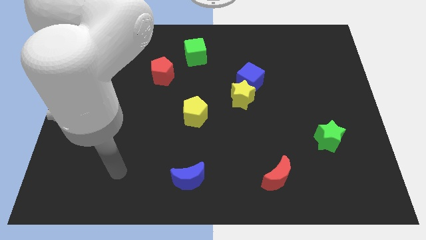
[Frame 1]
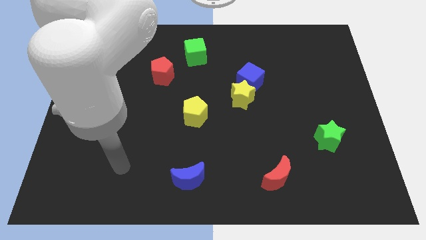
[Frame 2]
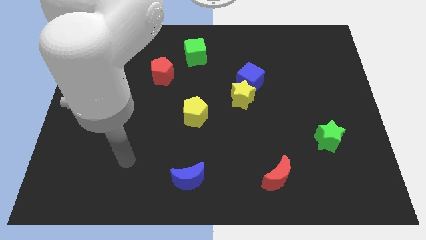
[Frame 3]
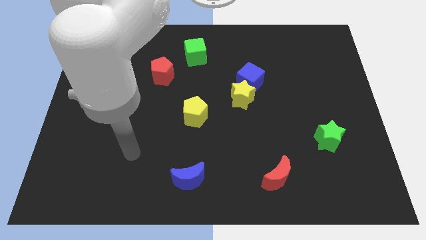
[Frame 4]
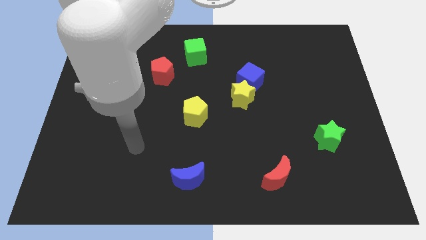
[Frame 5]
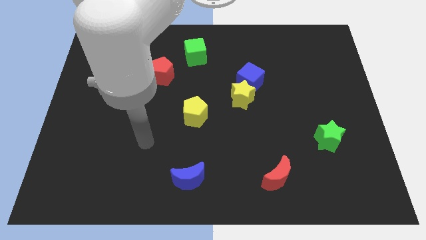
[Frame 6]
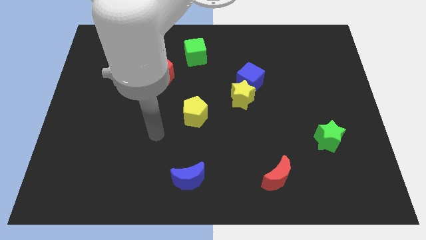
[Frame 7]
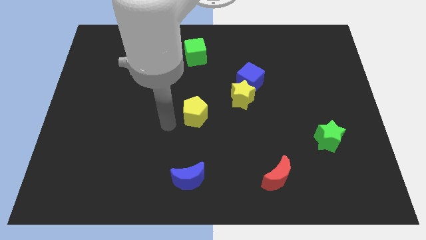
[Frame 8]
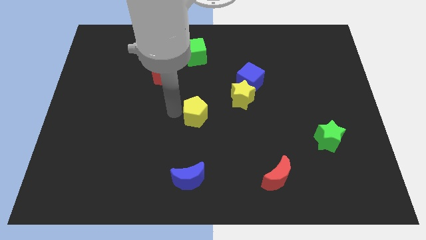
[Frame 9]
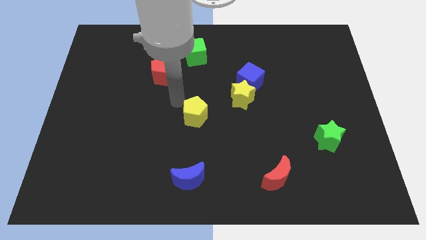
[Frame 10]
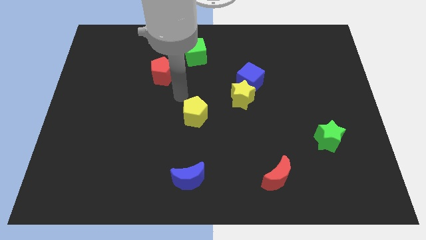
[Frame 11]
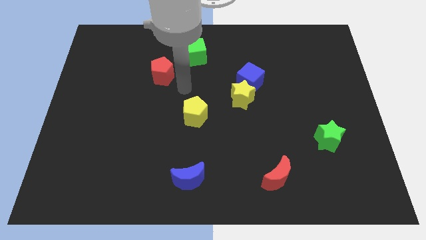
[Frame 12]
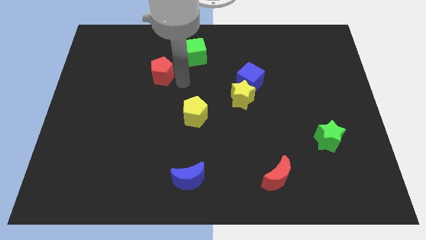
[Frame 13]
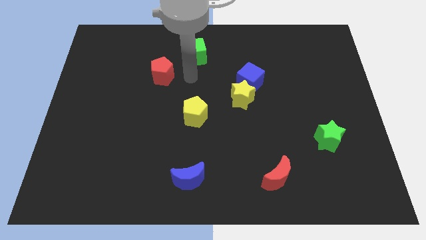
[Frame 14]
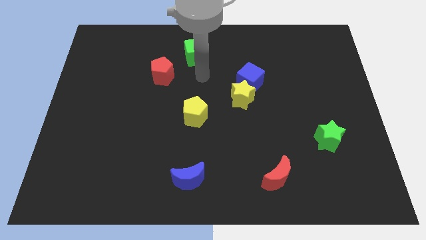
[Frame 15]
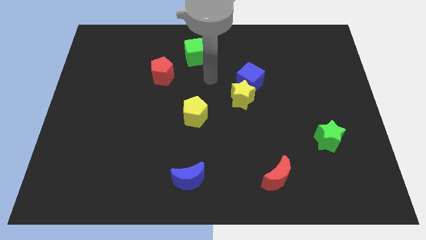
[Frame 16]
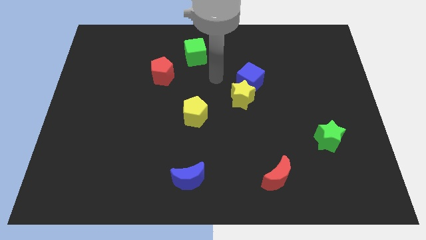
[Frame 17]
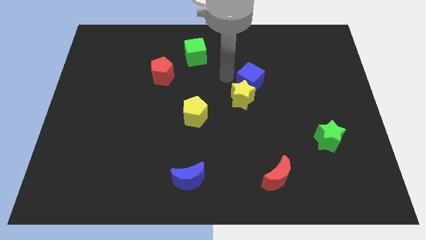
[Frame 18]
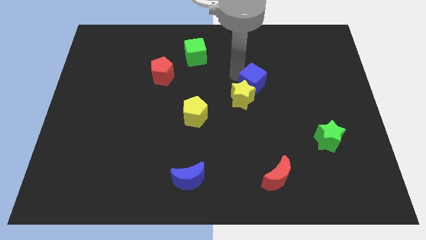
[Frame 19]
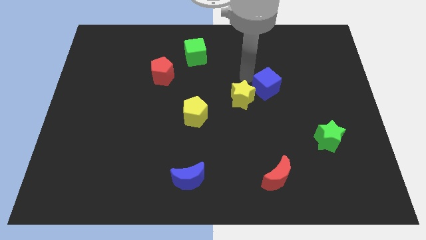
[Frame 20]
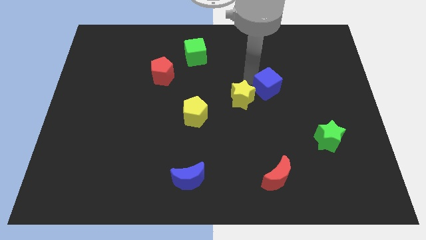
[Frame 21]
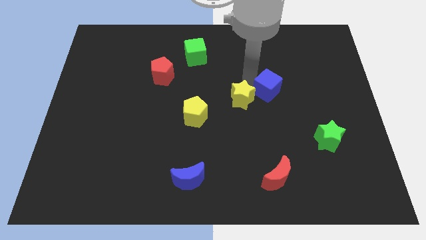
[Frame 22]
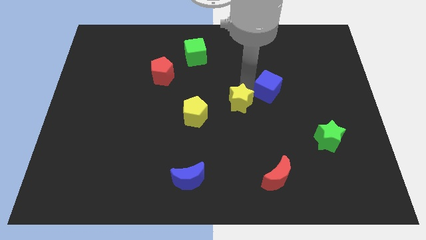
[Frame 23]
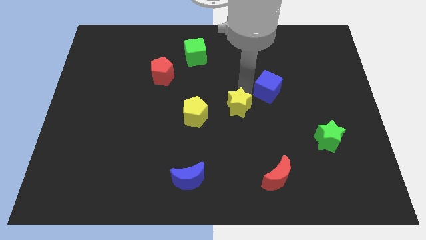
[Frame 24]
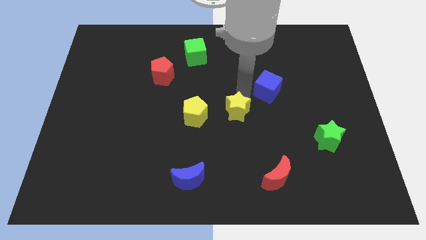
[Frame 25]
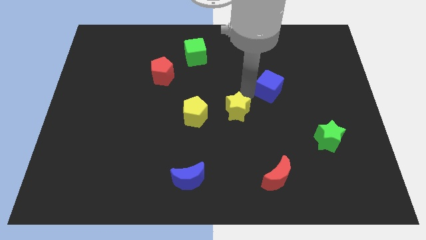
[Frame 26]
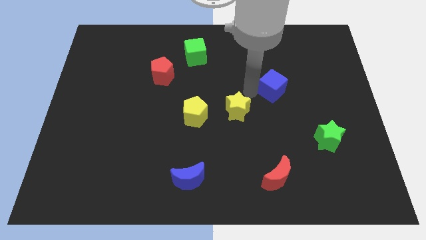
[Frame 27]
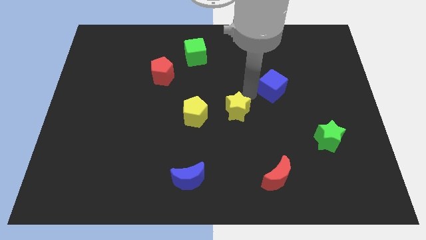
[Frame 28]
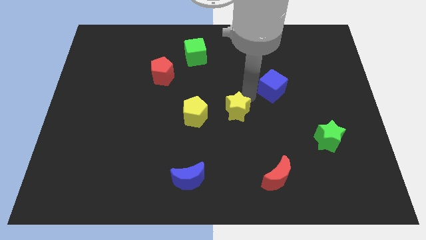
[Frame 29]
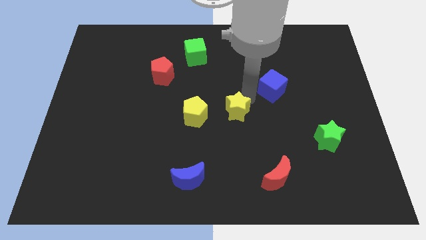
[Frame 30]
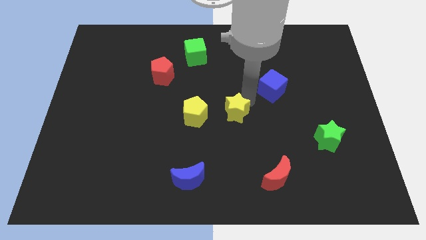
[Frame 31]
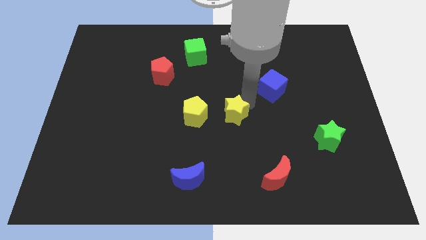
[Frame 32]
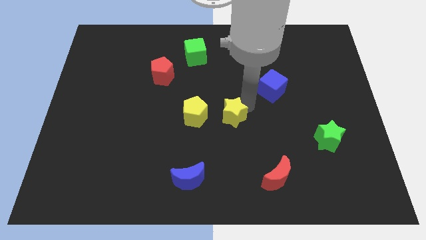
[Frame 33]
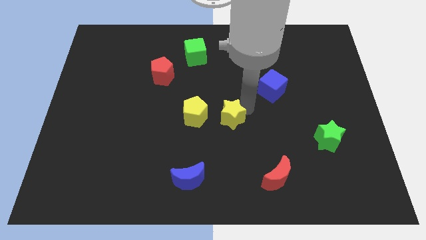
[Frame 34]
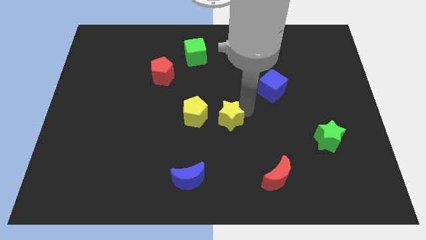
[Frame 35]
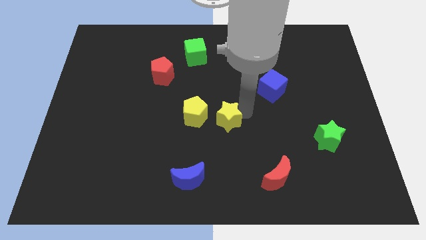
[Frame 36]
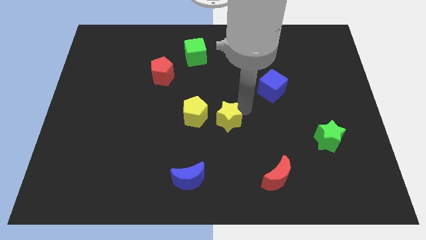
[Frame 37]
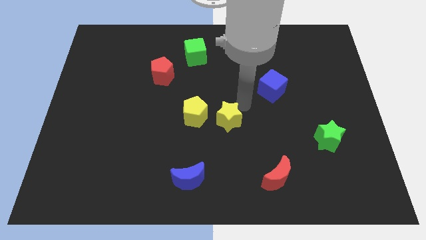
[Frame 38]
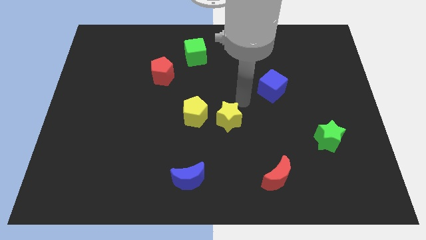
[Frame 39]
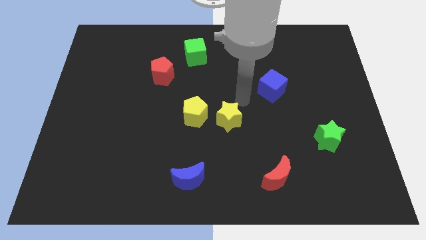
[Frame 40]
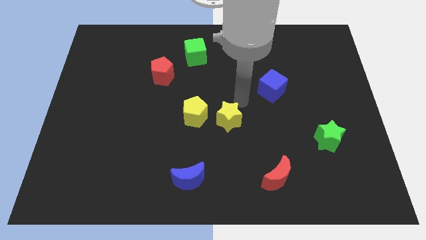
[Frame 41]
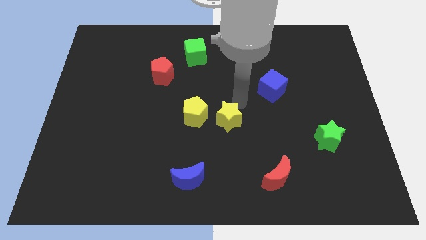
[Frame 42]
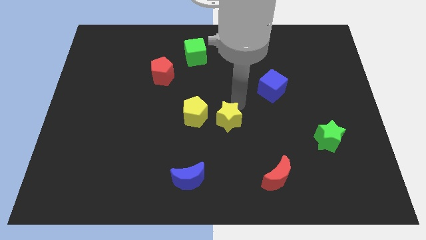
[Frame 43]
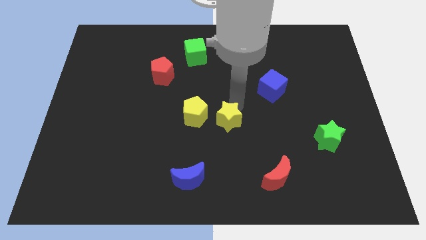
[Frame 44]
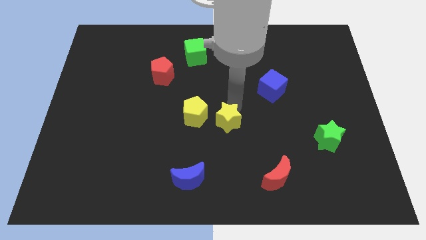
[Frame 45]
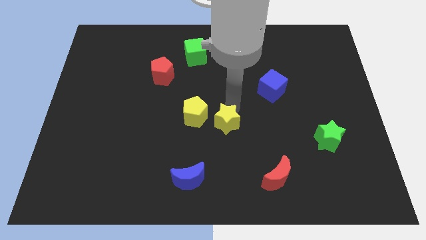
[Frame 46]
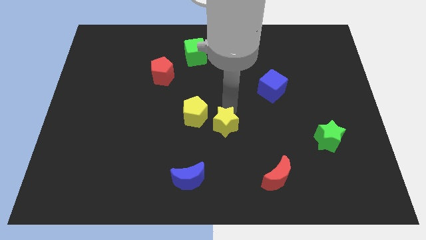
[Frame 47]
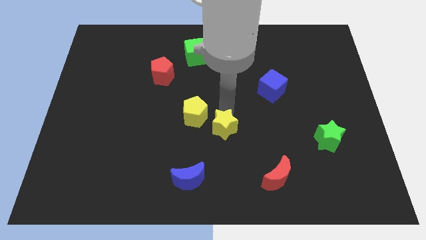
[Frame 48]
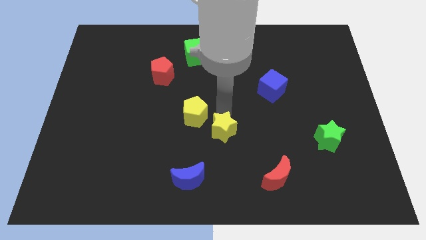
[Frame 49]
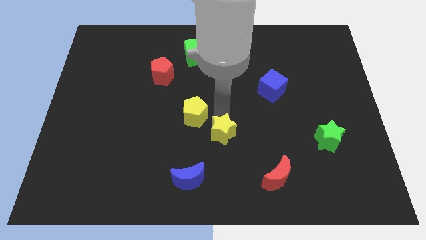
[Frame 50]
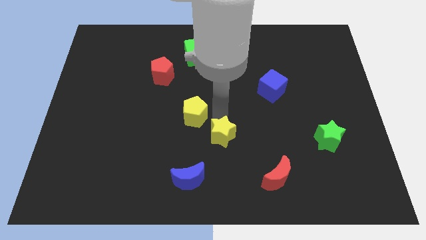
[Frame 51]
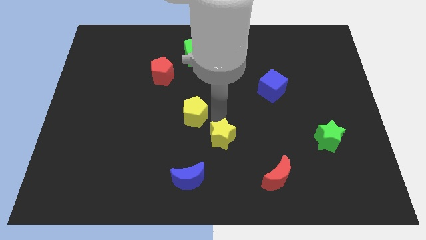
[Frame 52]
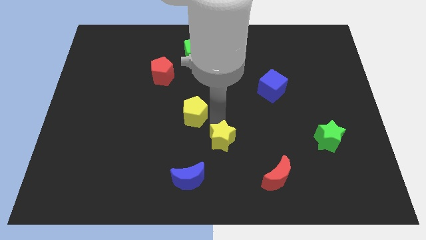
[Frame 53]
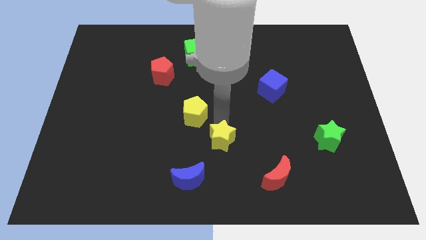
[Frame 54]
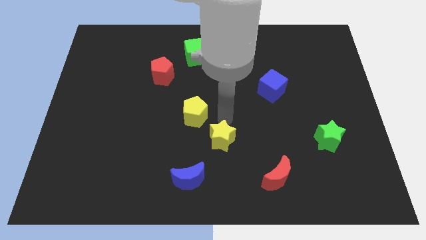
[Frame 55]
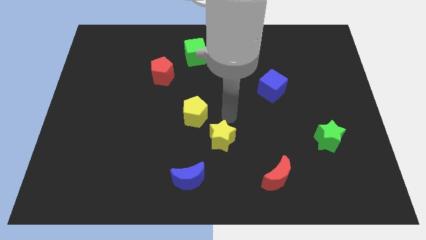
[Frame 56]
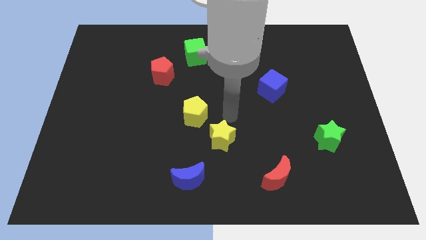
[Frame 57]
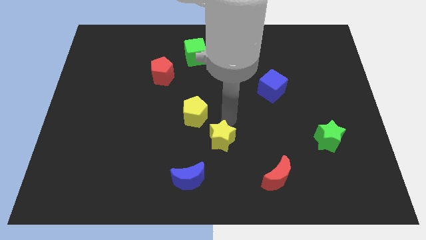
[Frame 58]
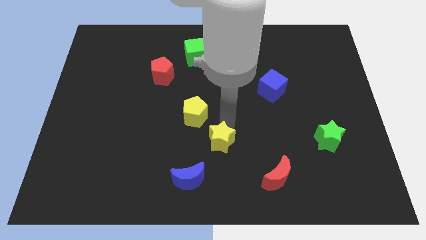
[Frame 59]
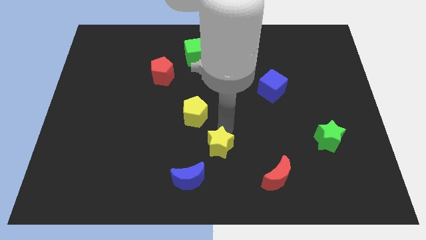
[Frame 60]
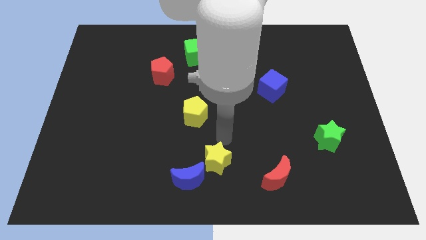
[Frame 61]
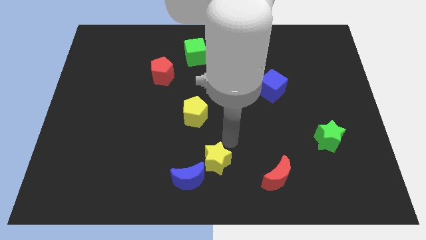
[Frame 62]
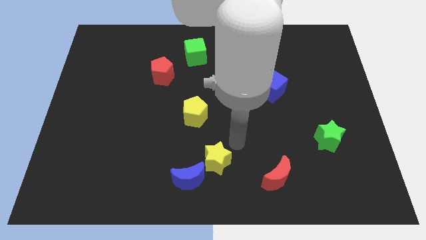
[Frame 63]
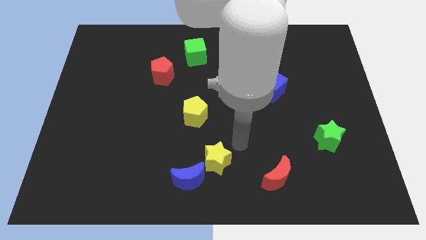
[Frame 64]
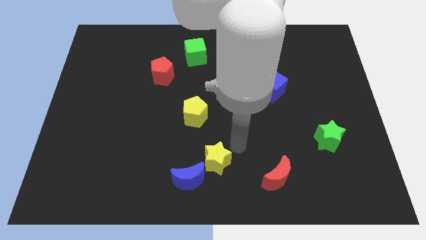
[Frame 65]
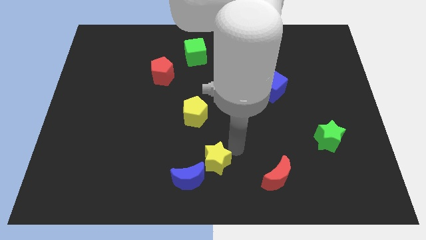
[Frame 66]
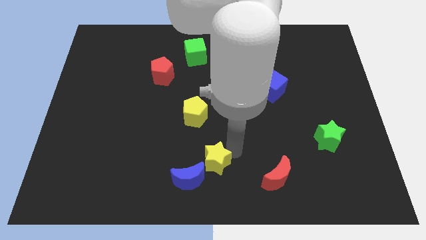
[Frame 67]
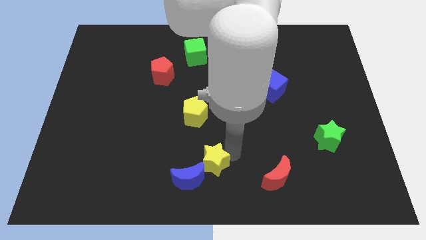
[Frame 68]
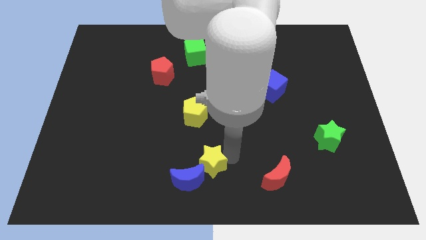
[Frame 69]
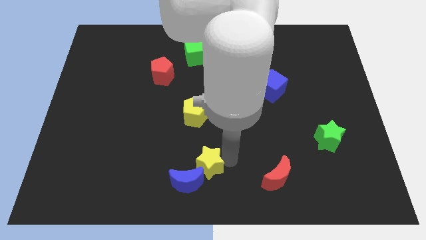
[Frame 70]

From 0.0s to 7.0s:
slide the yellow star towards the blue moon

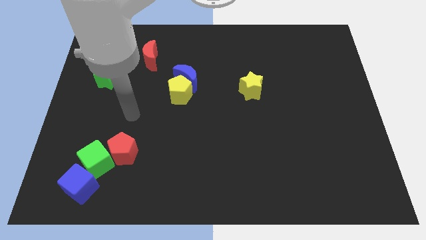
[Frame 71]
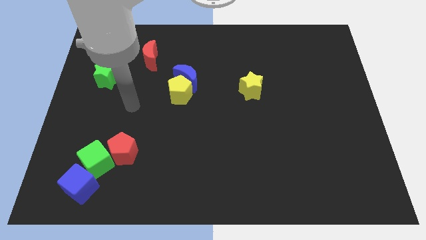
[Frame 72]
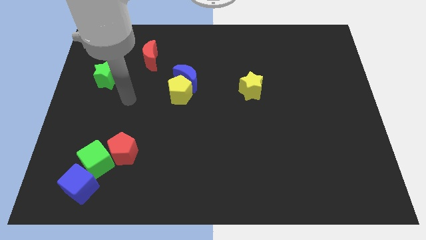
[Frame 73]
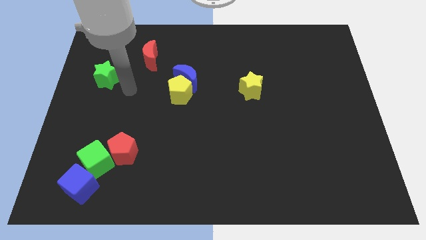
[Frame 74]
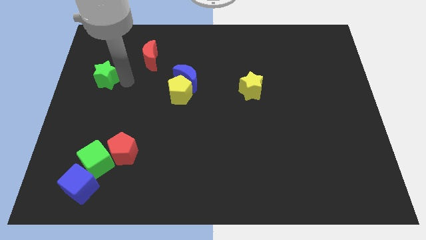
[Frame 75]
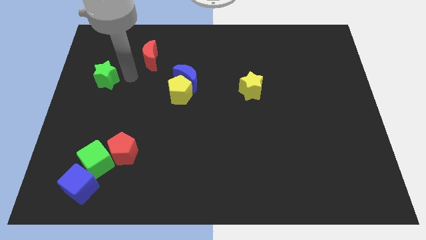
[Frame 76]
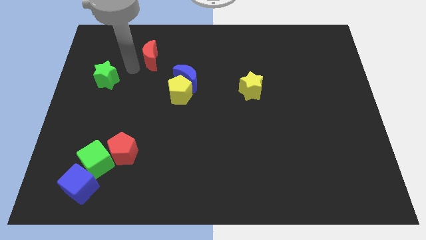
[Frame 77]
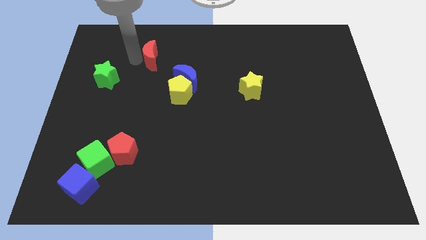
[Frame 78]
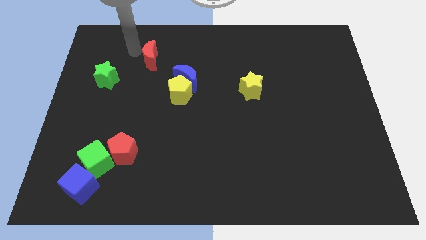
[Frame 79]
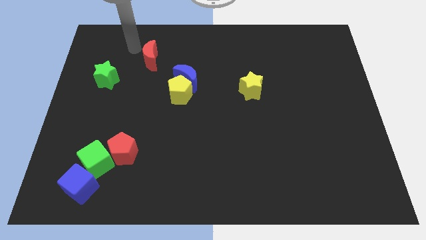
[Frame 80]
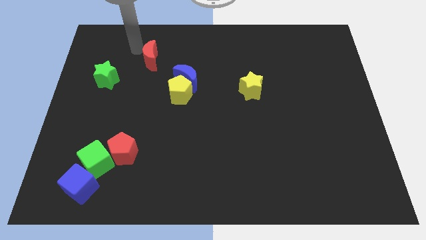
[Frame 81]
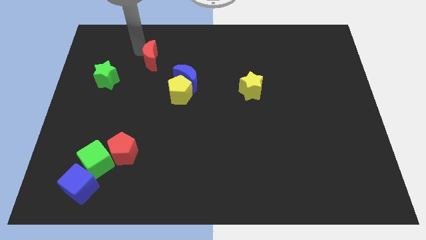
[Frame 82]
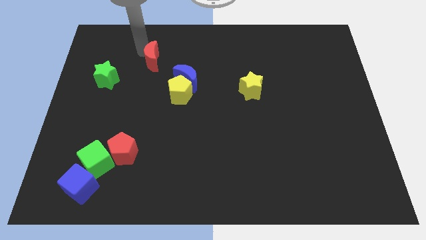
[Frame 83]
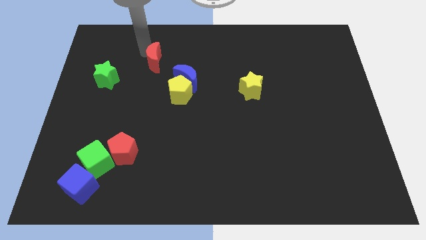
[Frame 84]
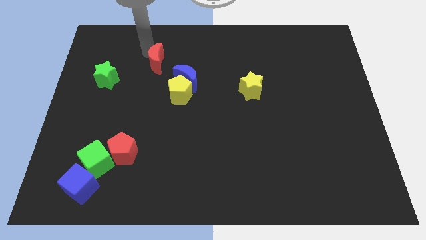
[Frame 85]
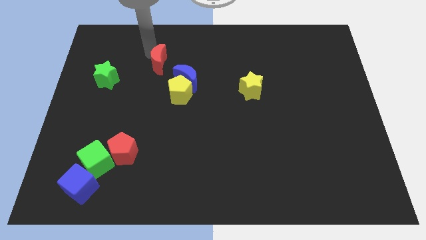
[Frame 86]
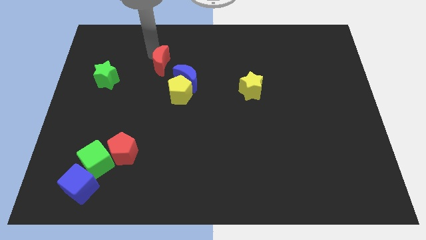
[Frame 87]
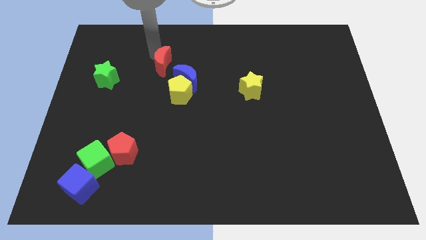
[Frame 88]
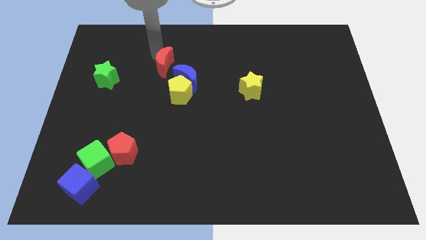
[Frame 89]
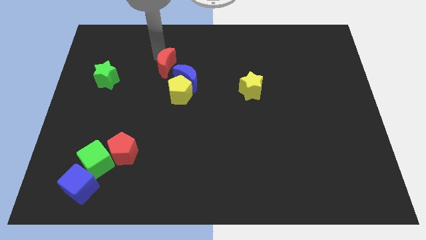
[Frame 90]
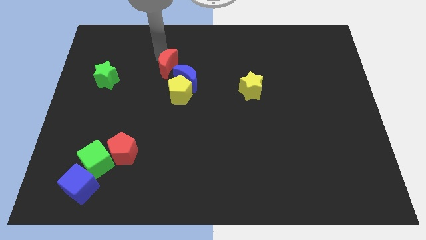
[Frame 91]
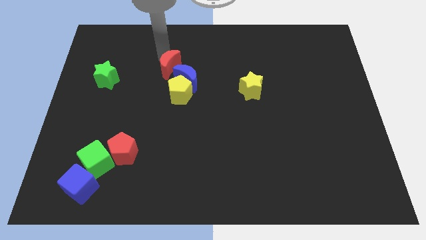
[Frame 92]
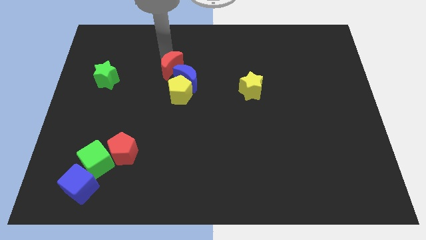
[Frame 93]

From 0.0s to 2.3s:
slide the red moon to the blue moon
